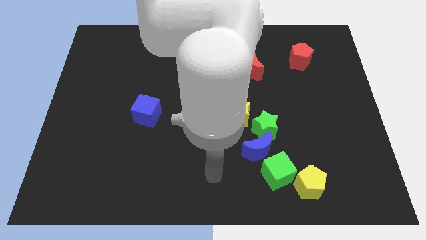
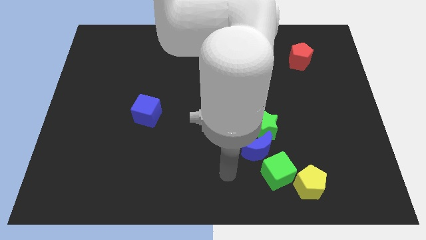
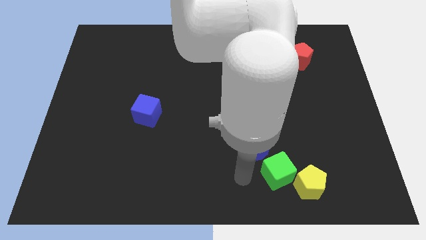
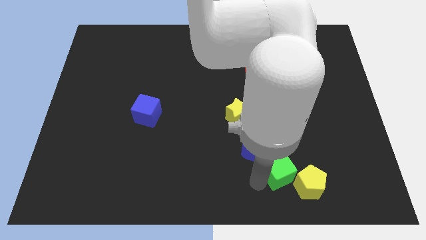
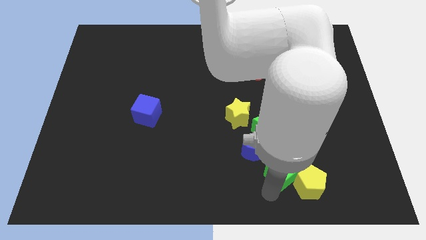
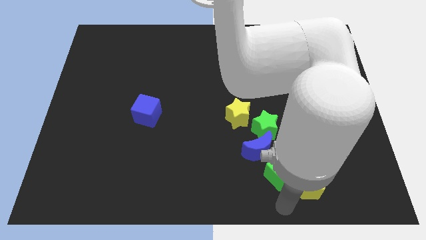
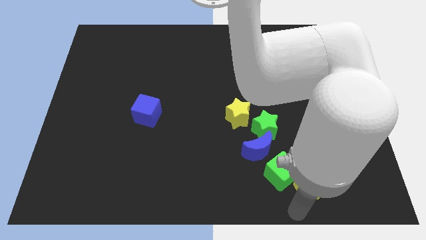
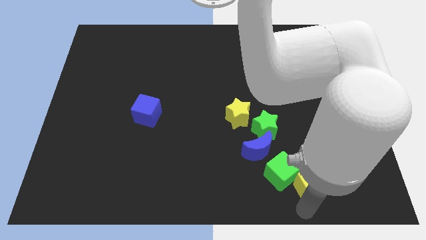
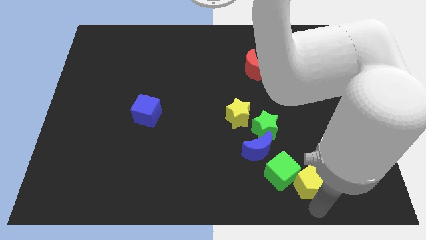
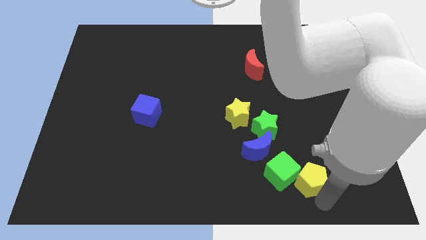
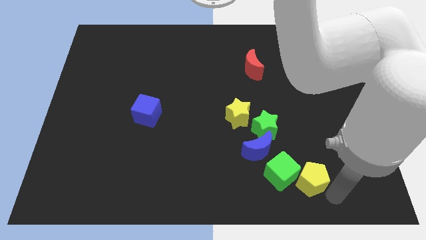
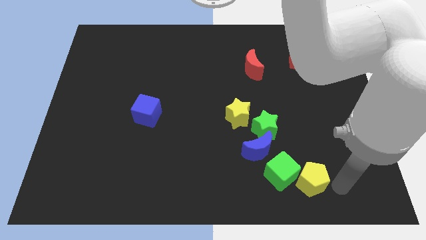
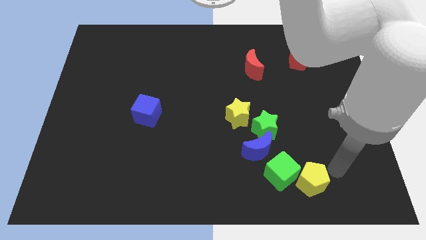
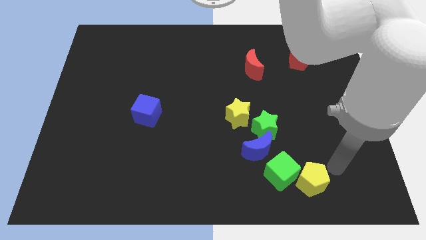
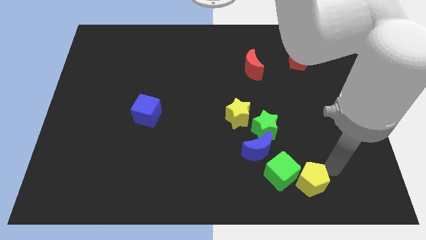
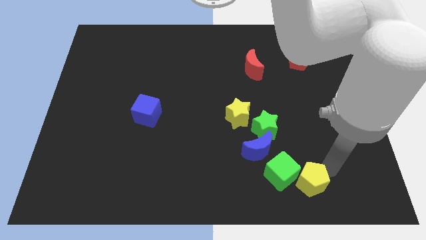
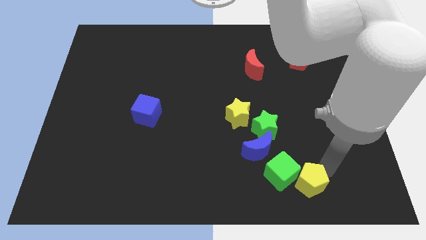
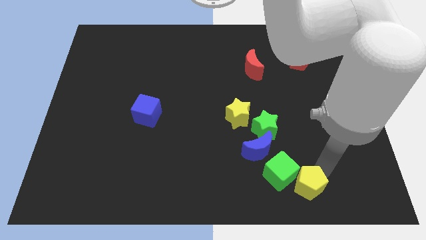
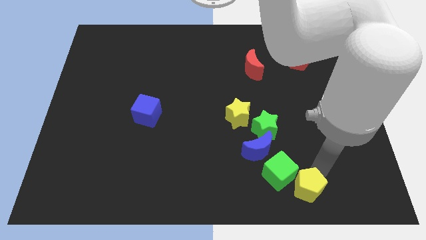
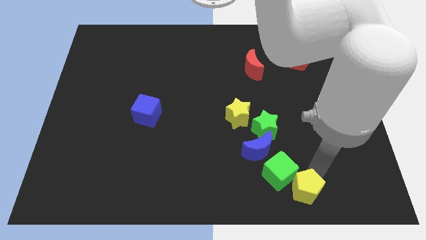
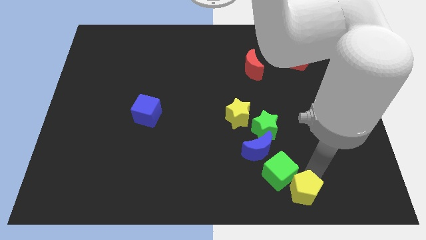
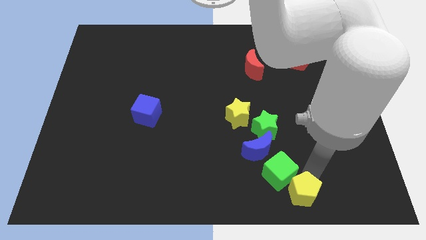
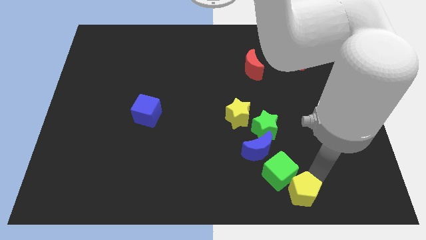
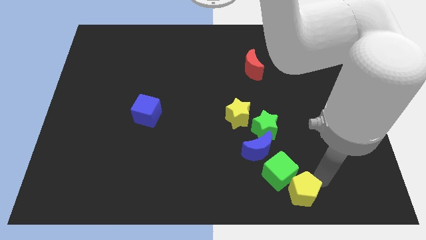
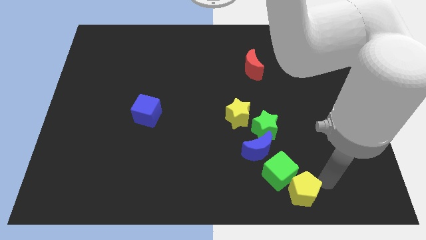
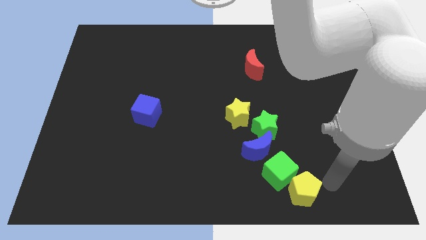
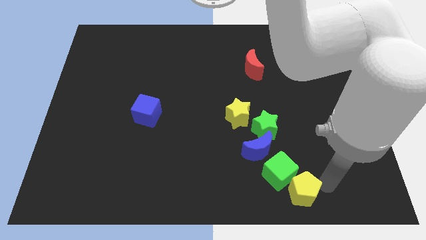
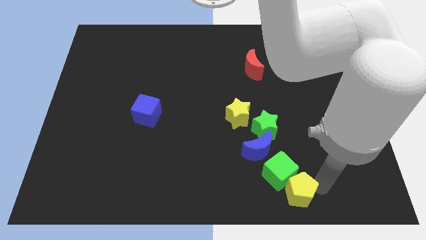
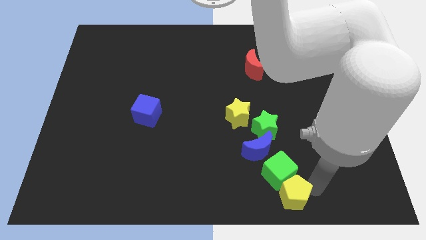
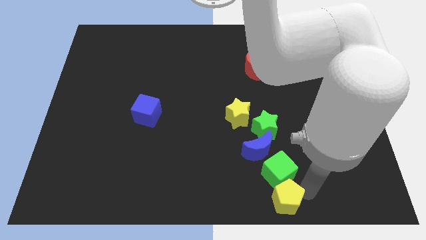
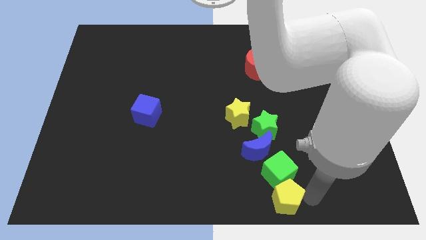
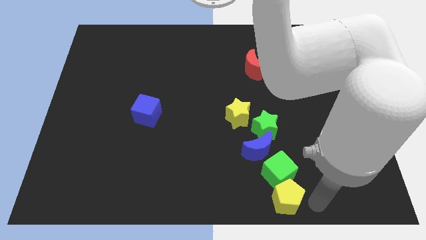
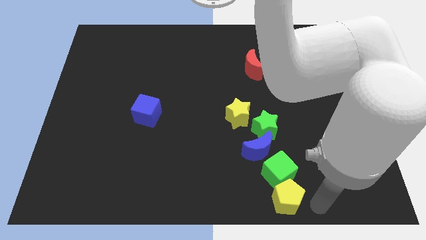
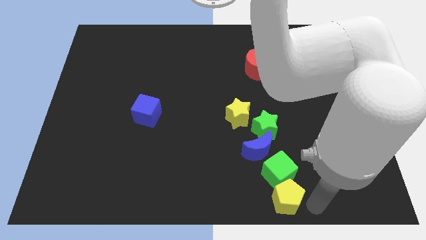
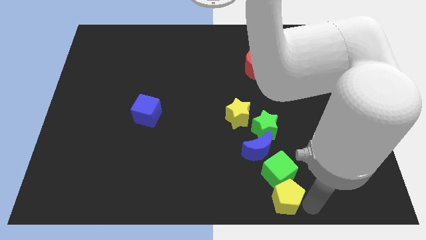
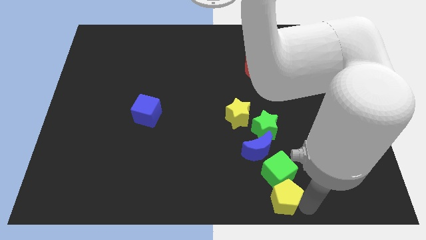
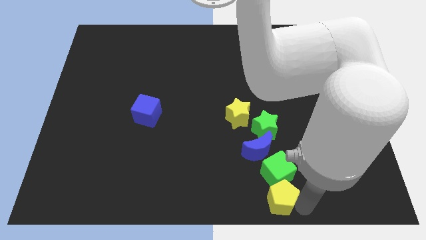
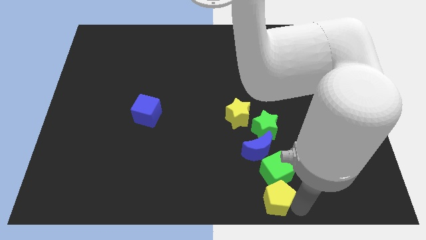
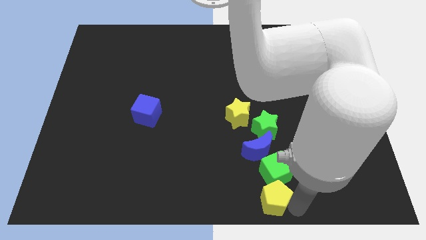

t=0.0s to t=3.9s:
push the yellow pentagon somewhat left

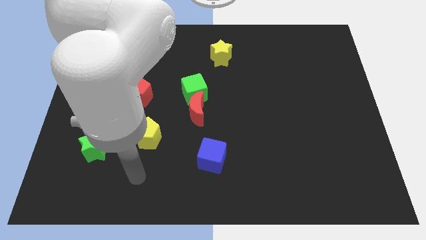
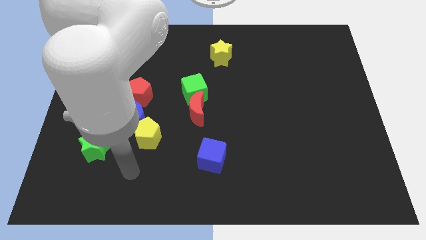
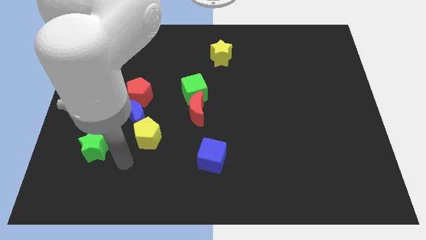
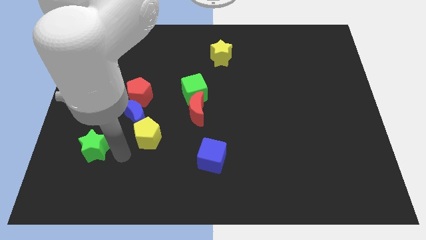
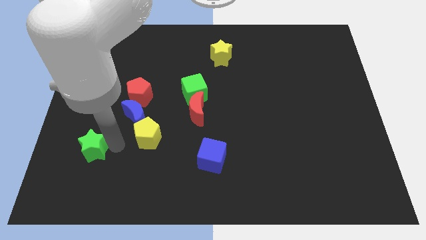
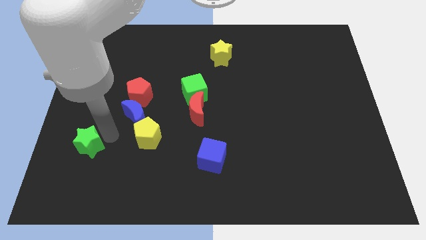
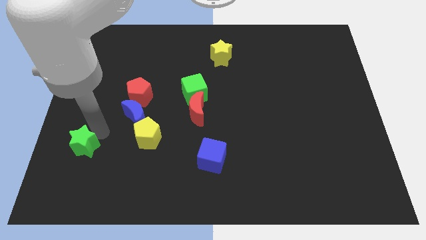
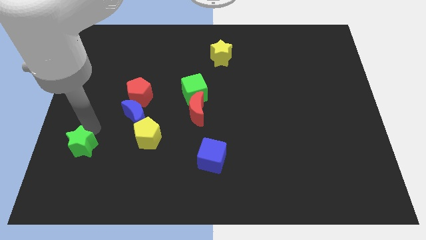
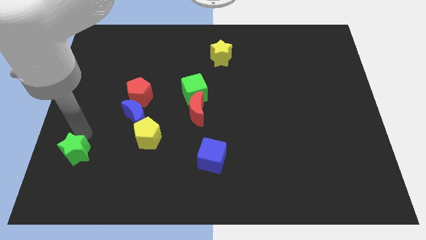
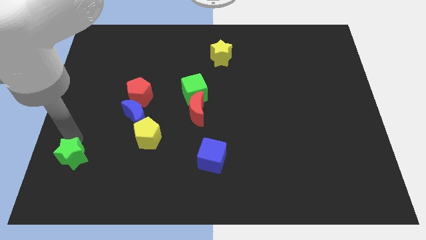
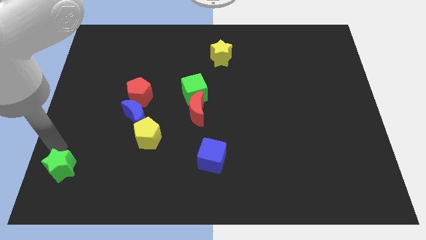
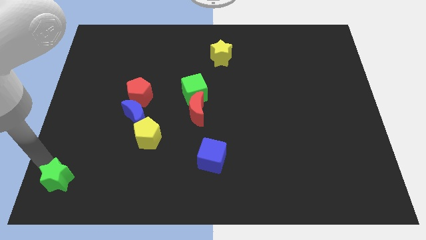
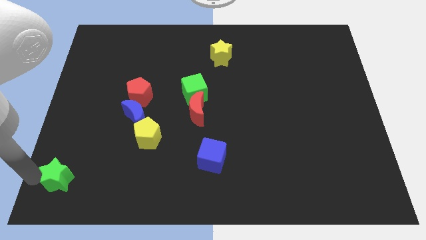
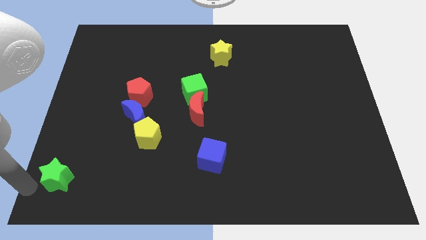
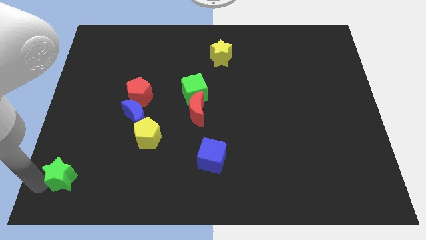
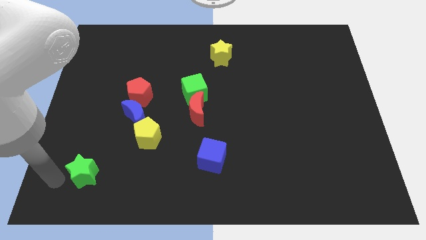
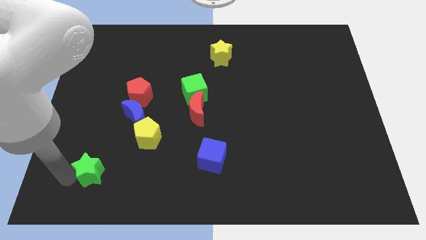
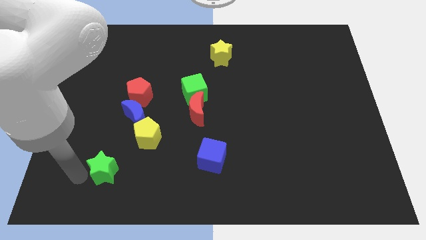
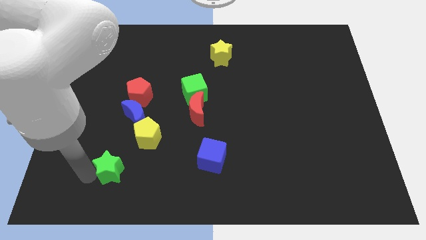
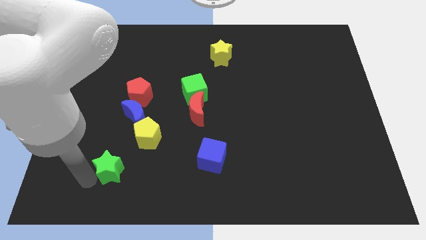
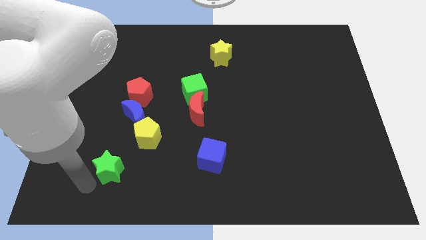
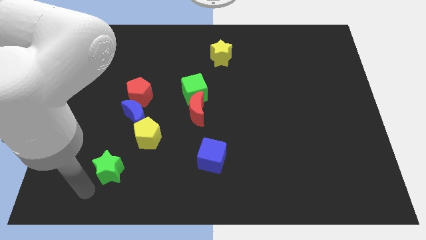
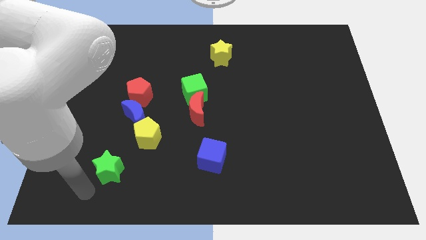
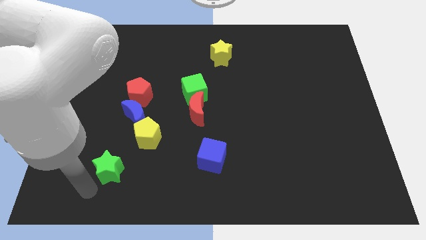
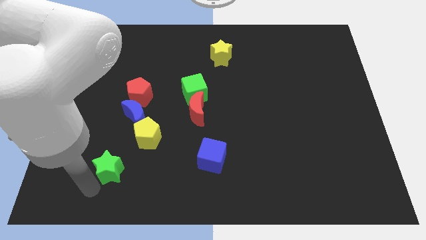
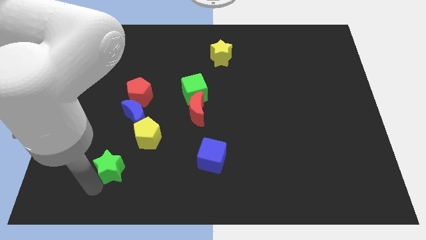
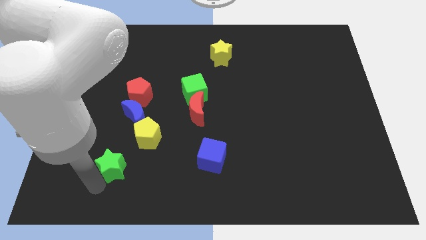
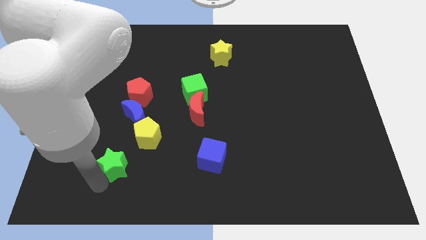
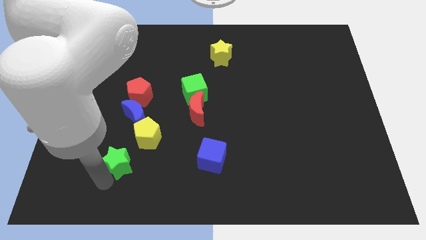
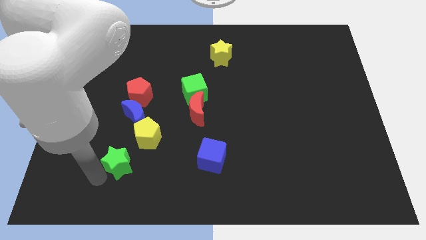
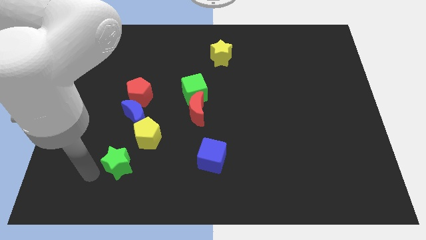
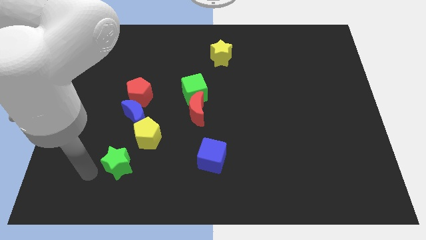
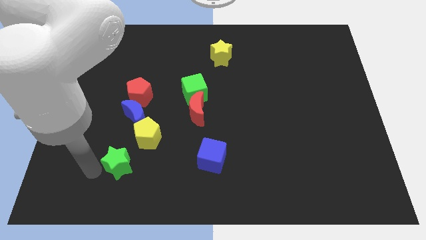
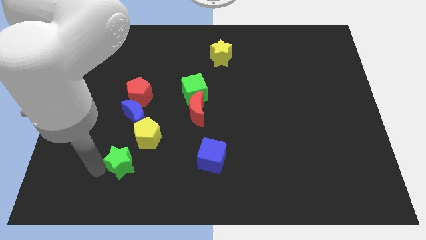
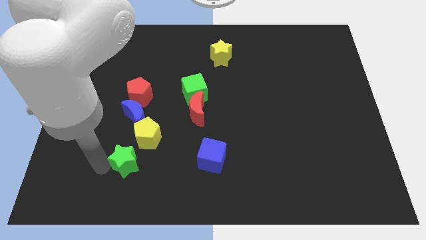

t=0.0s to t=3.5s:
slightly push the green star right

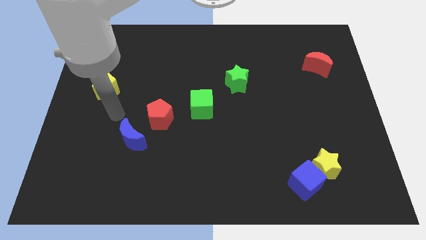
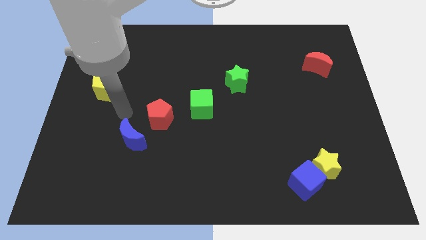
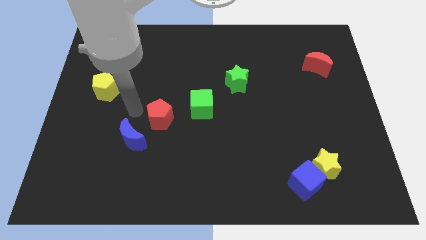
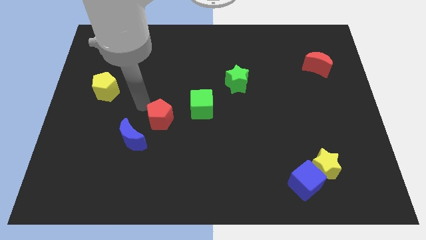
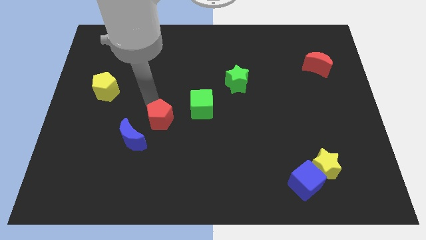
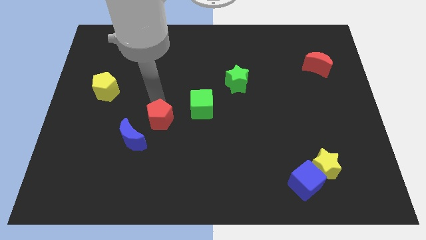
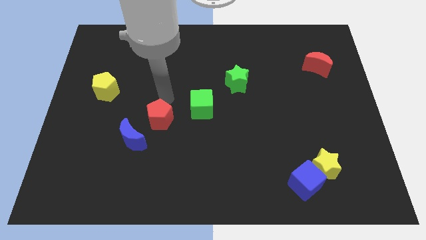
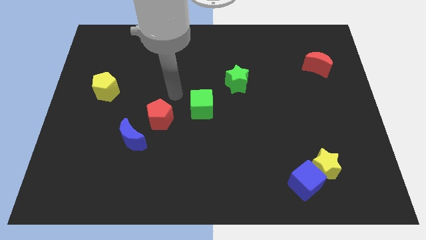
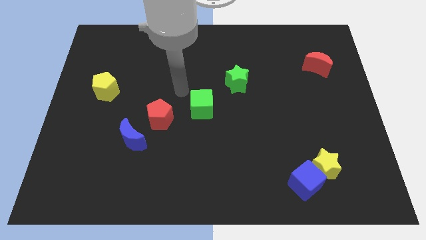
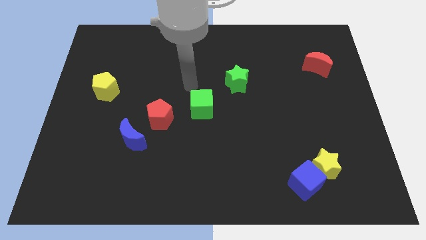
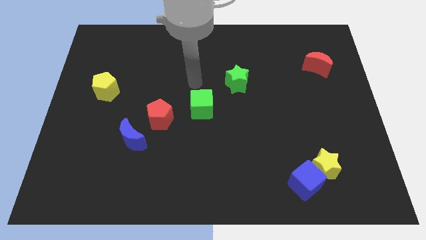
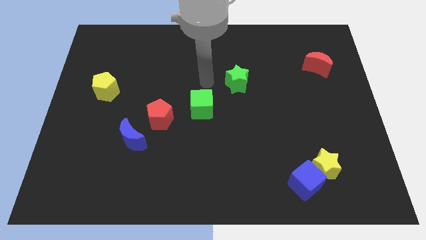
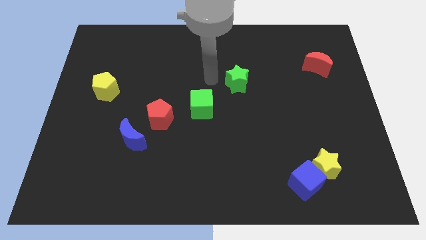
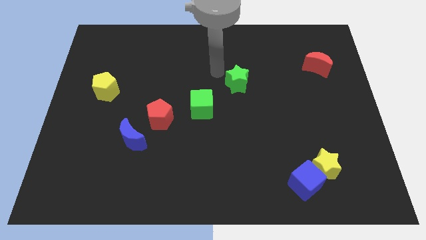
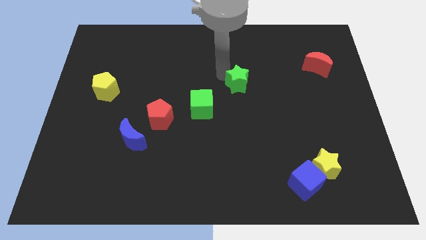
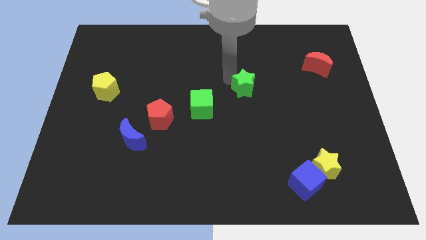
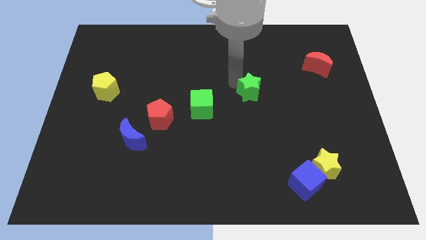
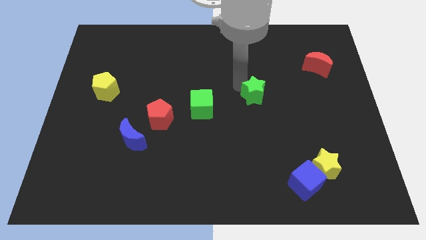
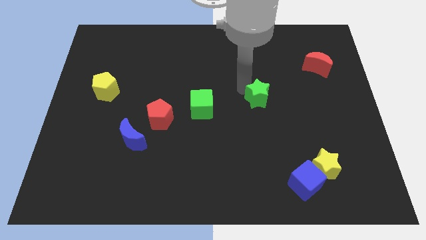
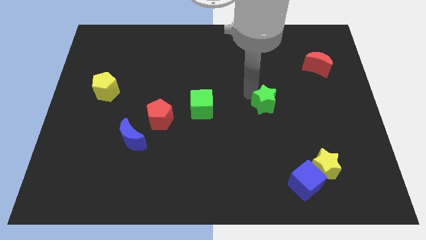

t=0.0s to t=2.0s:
move the green star a bit diagonally down and to the right
